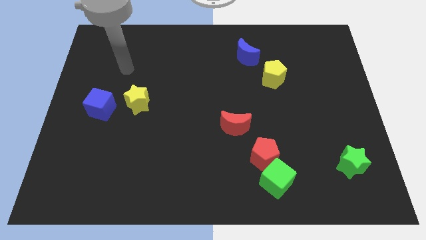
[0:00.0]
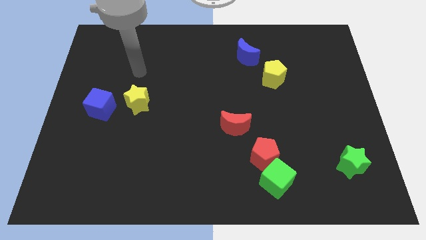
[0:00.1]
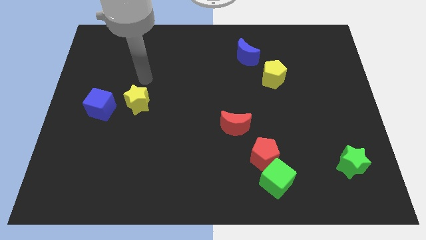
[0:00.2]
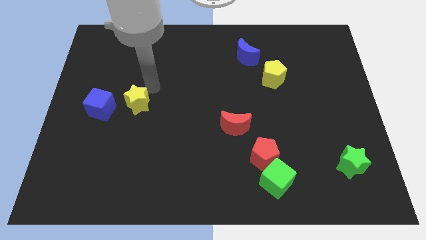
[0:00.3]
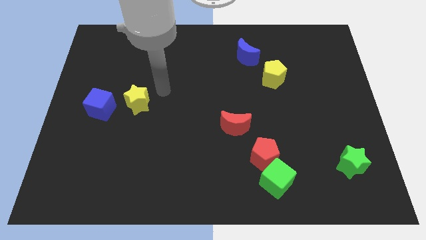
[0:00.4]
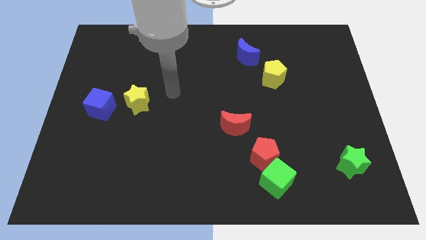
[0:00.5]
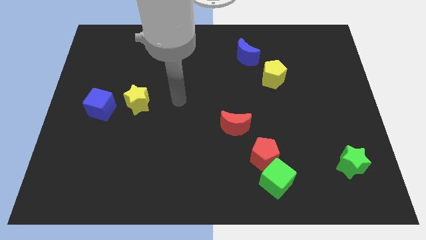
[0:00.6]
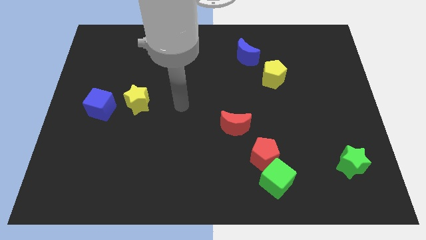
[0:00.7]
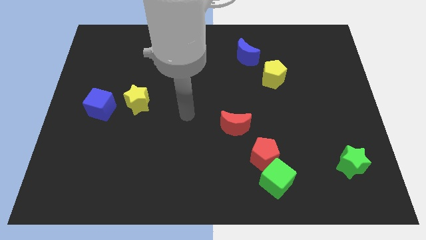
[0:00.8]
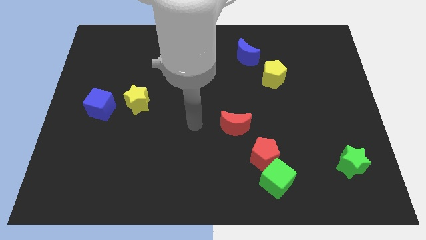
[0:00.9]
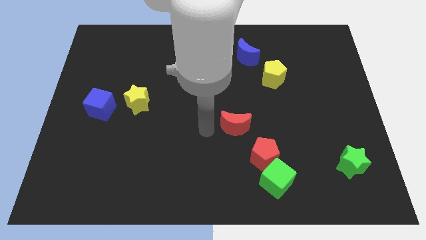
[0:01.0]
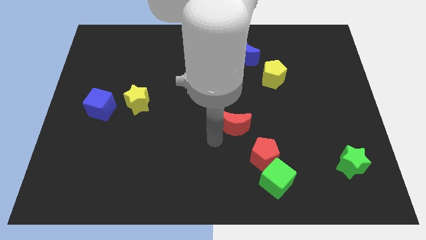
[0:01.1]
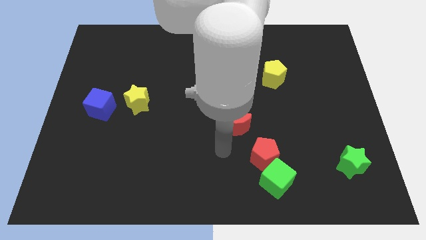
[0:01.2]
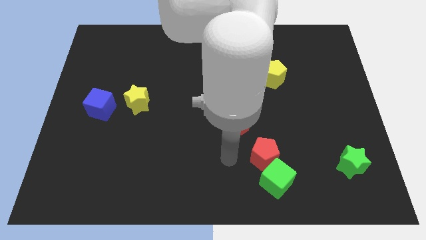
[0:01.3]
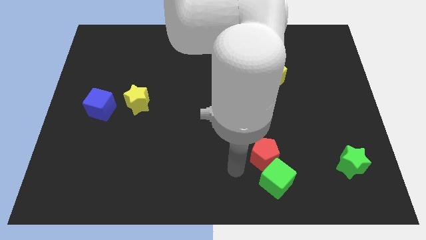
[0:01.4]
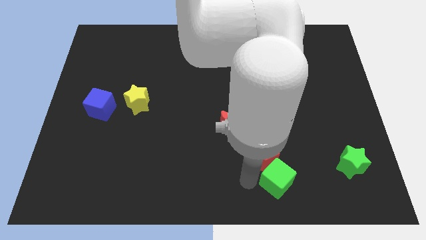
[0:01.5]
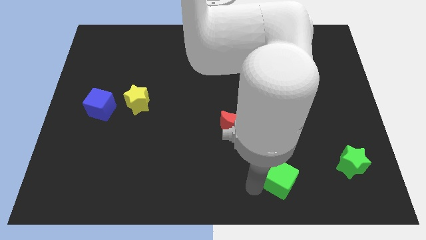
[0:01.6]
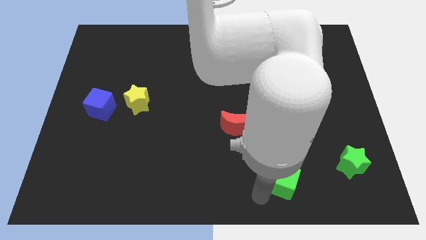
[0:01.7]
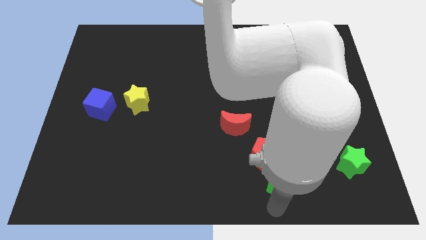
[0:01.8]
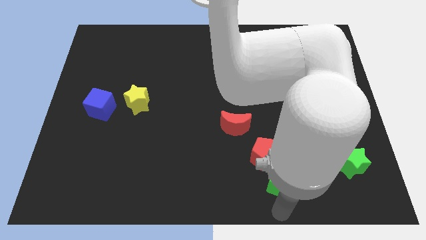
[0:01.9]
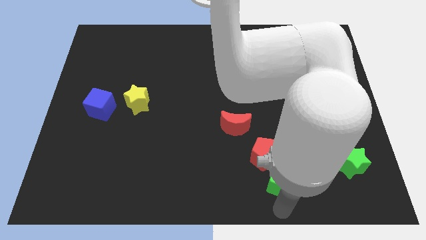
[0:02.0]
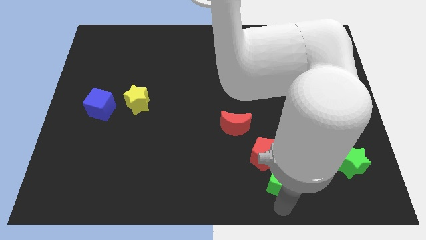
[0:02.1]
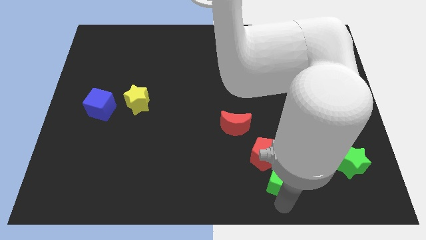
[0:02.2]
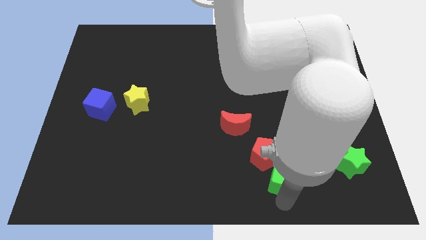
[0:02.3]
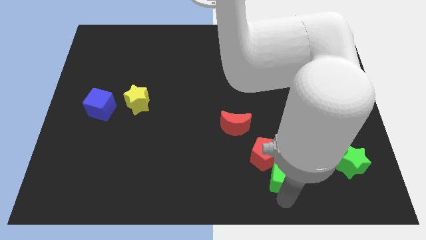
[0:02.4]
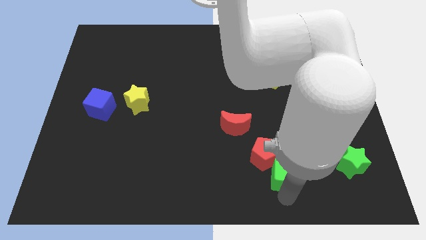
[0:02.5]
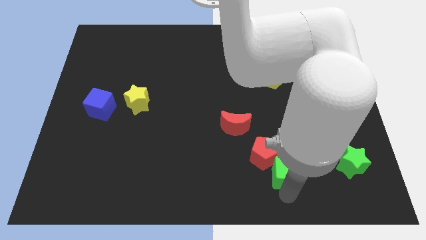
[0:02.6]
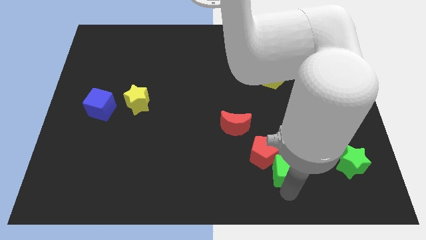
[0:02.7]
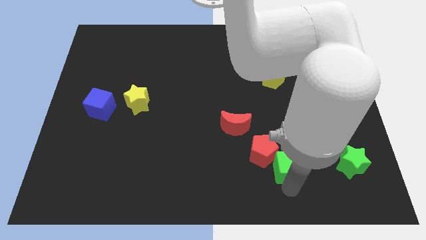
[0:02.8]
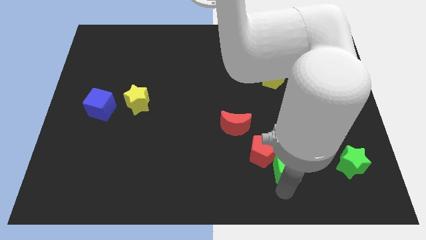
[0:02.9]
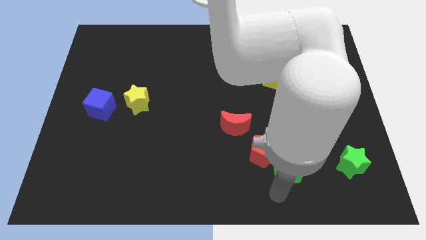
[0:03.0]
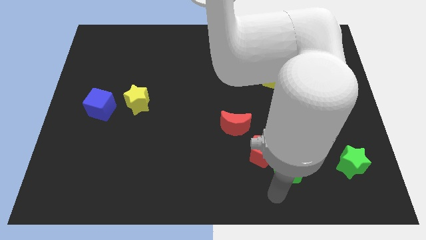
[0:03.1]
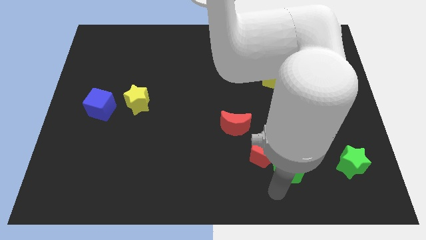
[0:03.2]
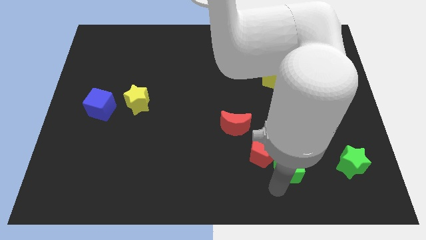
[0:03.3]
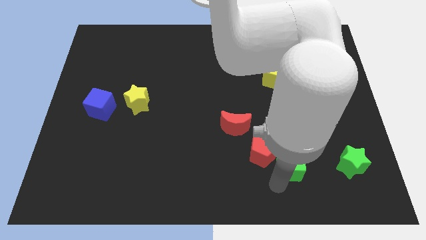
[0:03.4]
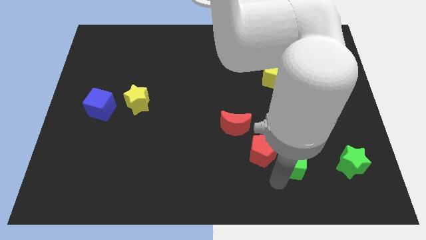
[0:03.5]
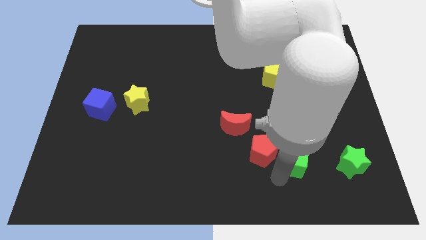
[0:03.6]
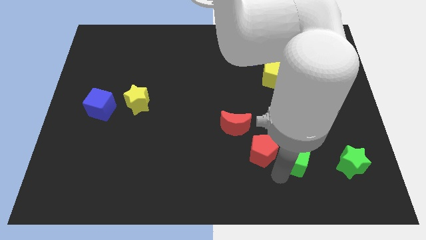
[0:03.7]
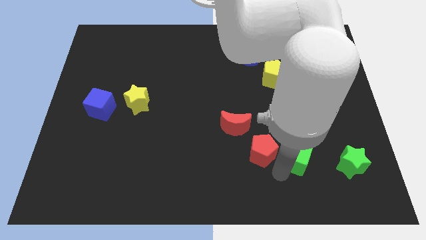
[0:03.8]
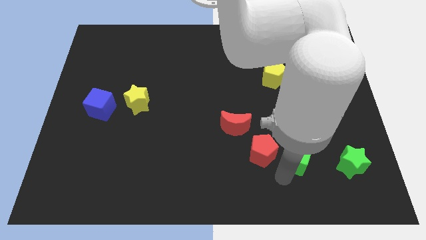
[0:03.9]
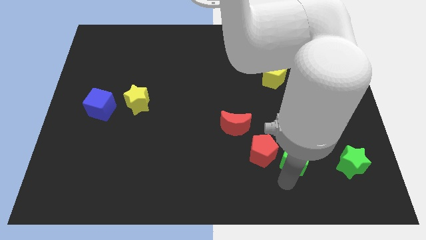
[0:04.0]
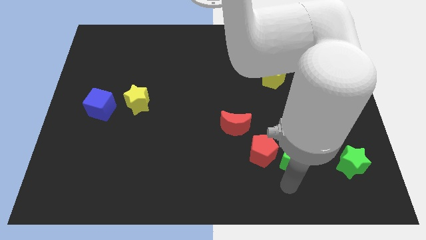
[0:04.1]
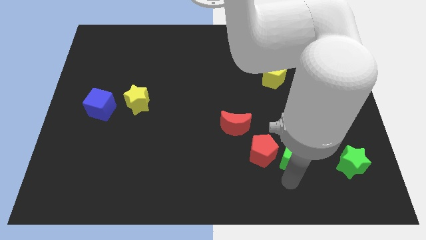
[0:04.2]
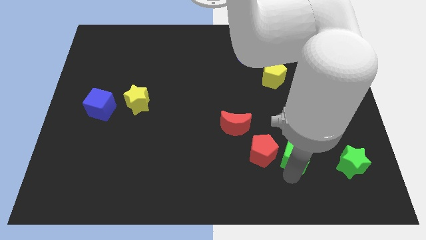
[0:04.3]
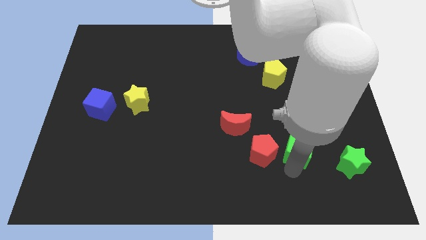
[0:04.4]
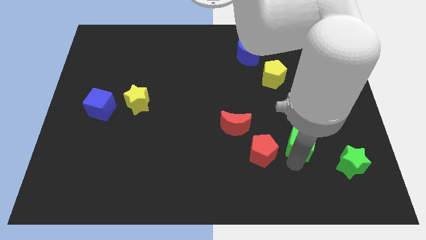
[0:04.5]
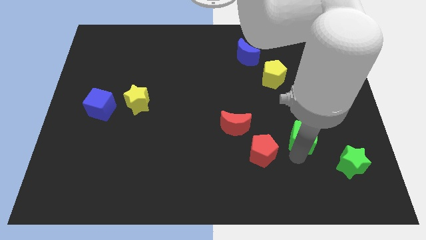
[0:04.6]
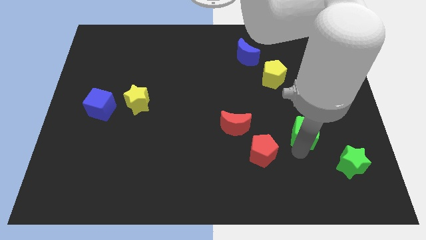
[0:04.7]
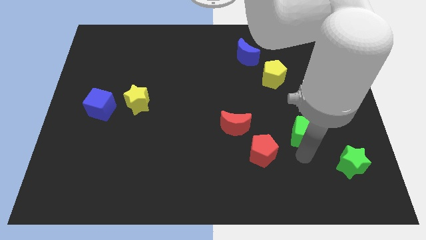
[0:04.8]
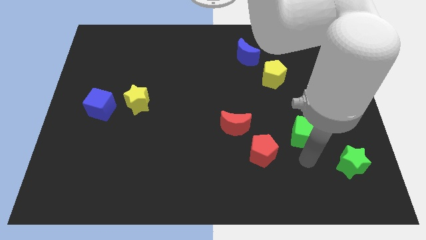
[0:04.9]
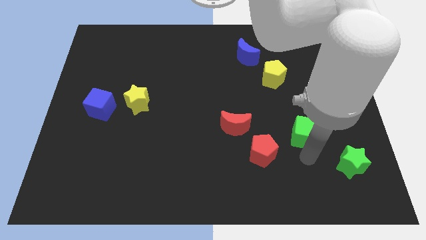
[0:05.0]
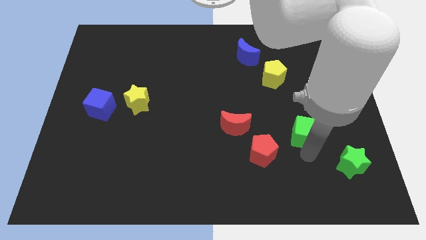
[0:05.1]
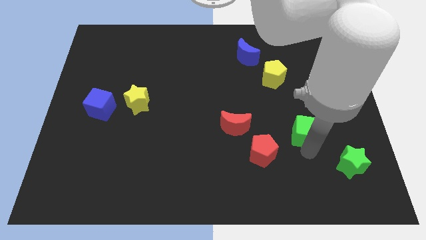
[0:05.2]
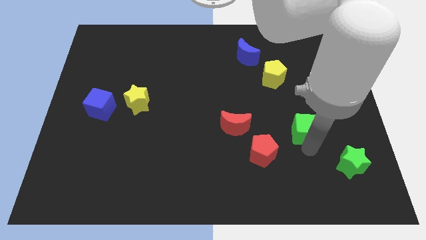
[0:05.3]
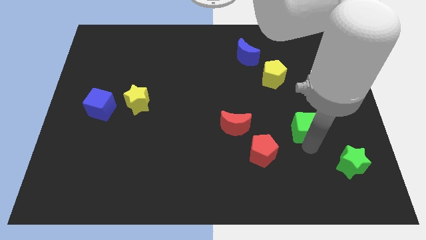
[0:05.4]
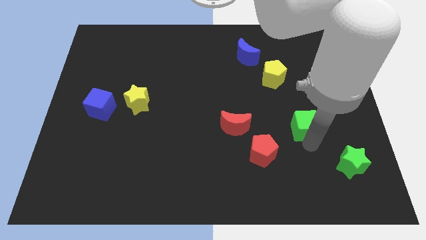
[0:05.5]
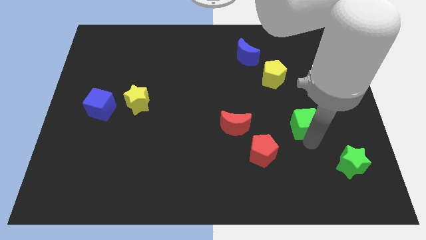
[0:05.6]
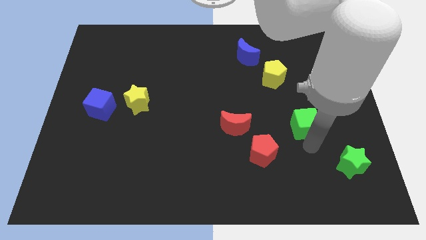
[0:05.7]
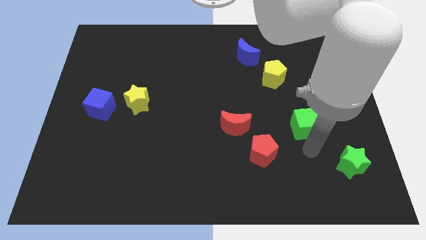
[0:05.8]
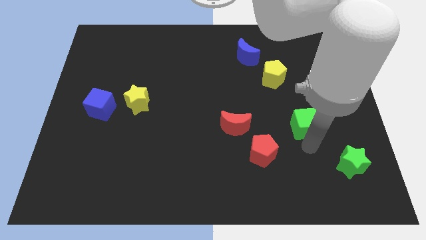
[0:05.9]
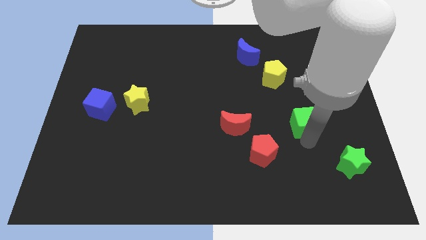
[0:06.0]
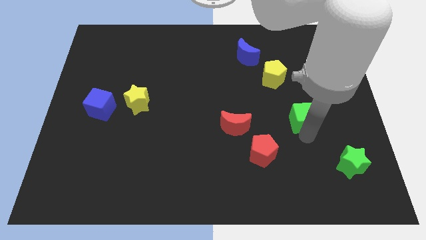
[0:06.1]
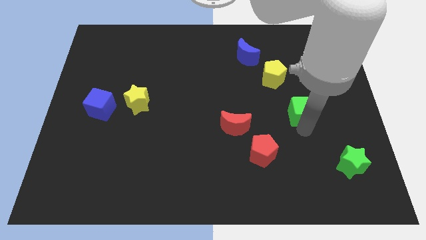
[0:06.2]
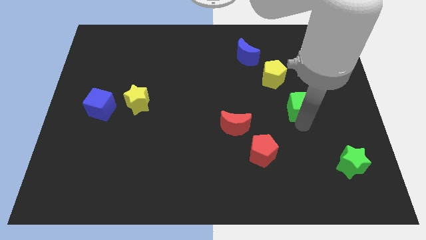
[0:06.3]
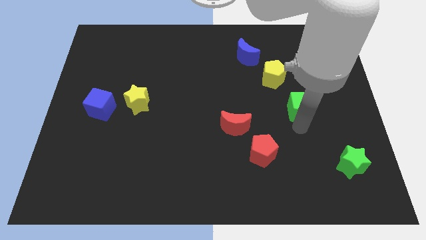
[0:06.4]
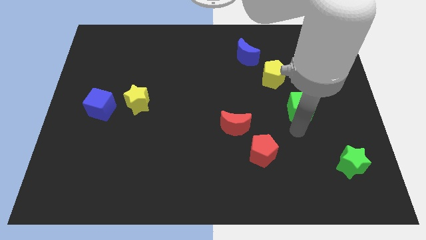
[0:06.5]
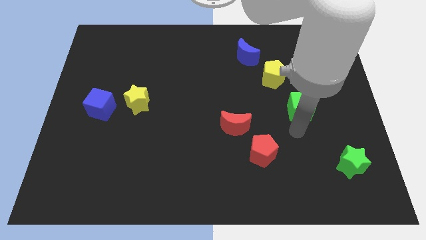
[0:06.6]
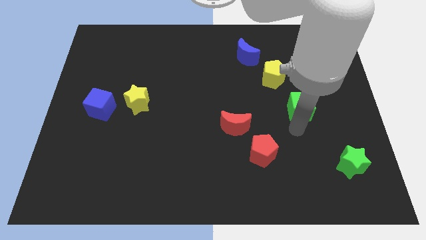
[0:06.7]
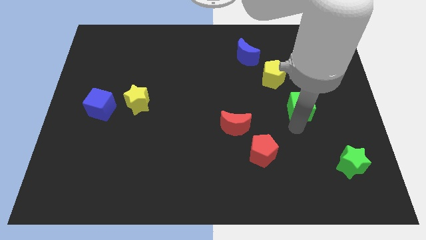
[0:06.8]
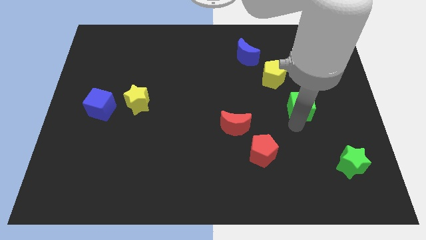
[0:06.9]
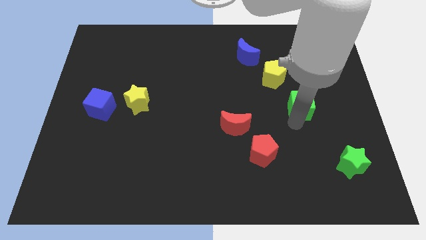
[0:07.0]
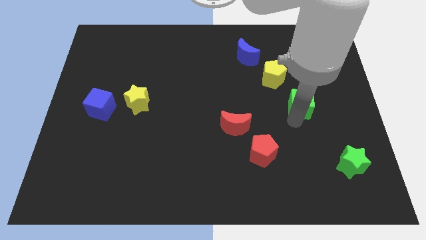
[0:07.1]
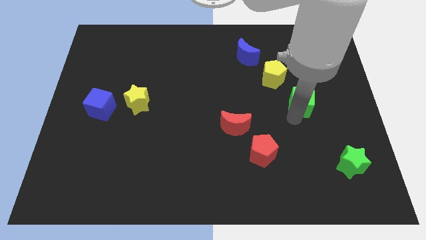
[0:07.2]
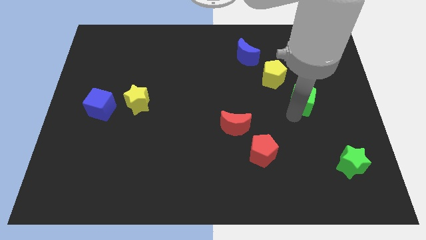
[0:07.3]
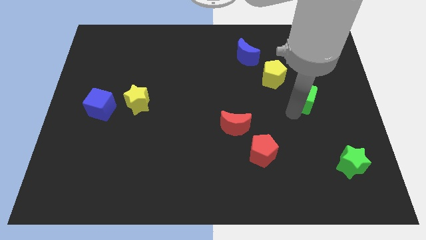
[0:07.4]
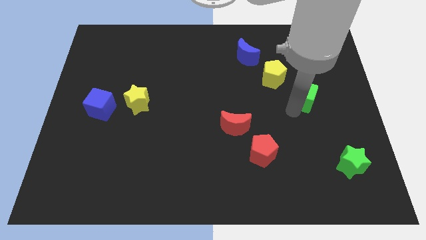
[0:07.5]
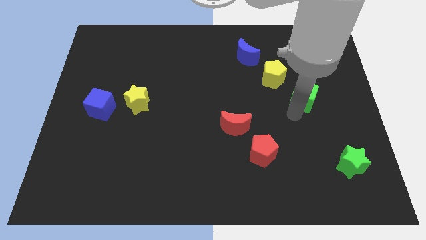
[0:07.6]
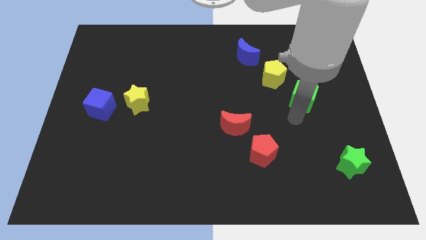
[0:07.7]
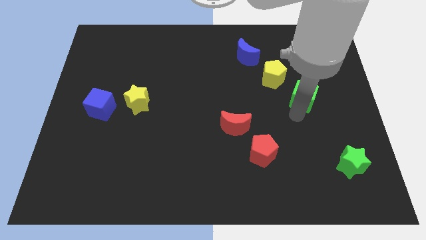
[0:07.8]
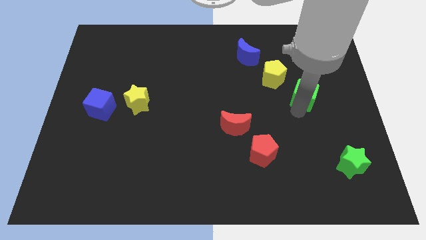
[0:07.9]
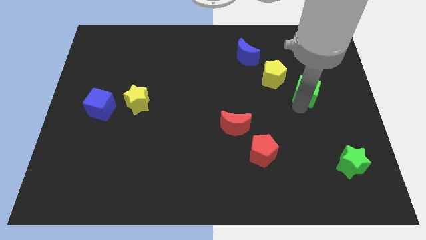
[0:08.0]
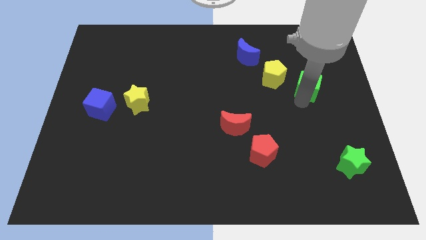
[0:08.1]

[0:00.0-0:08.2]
push the green cube to the right side of the yellow pentagon
